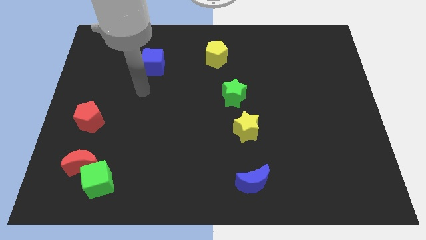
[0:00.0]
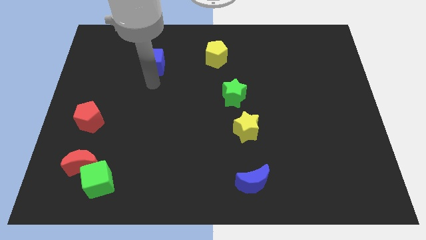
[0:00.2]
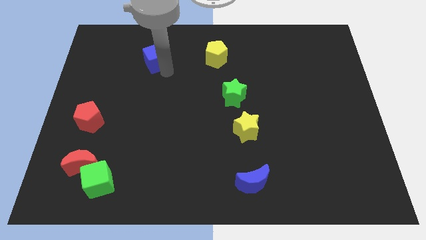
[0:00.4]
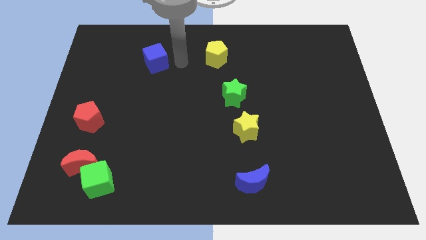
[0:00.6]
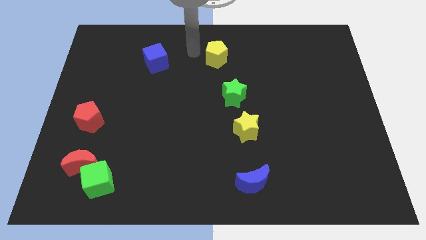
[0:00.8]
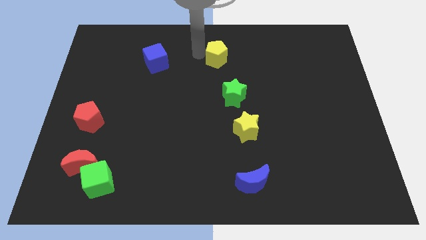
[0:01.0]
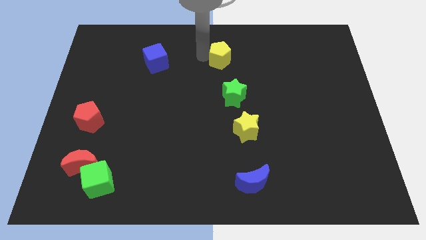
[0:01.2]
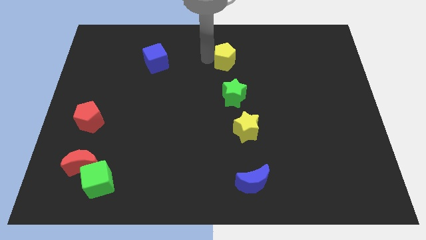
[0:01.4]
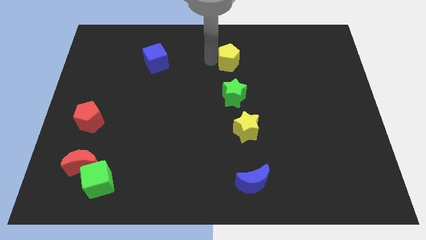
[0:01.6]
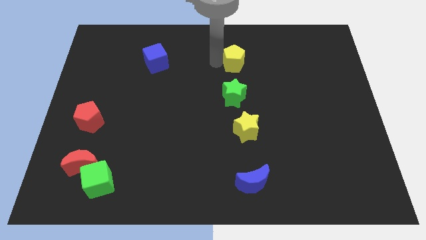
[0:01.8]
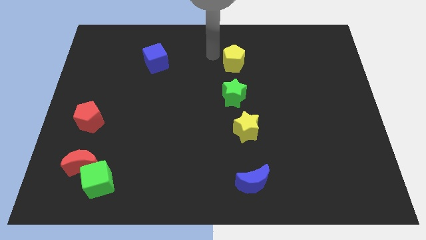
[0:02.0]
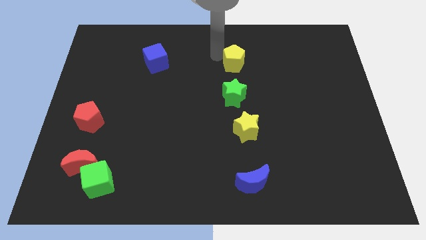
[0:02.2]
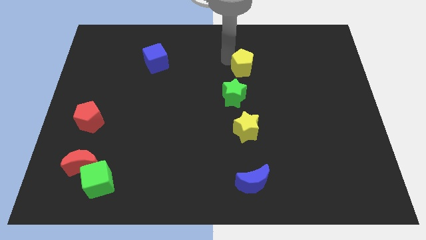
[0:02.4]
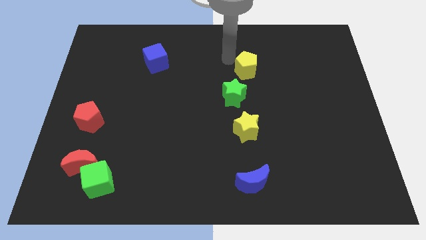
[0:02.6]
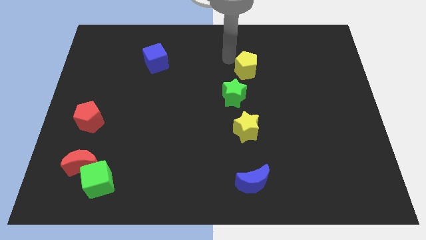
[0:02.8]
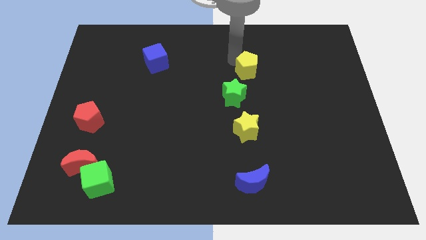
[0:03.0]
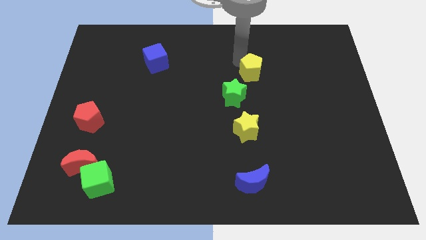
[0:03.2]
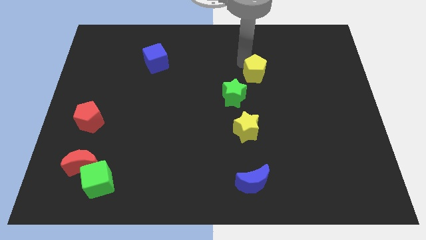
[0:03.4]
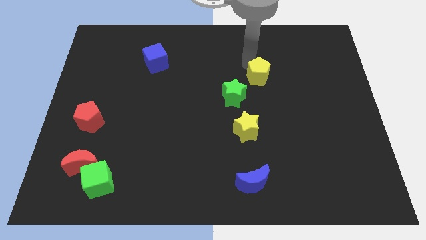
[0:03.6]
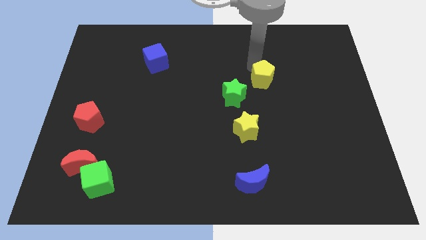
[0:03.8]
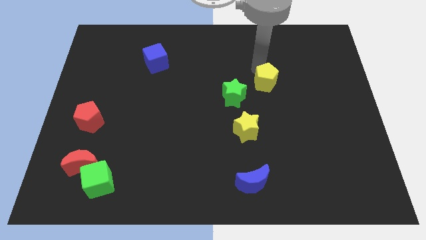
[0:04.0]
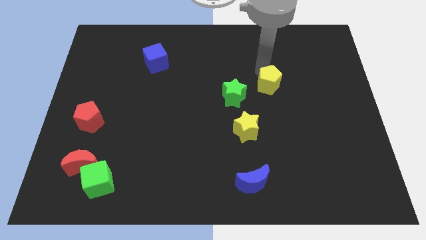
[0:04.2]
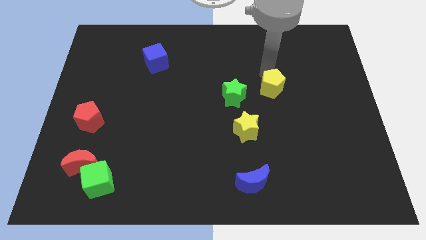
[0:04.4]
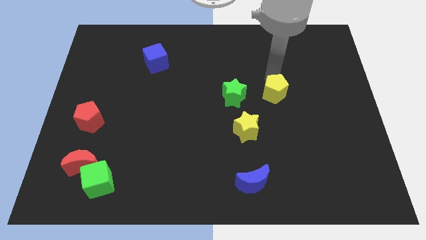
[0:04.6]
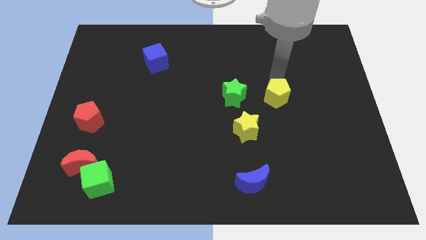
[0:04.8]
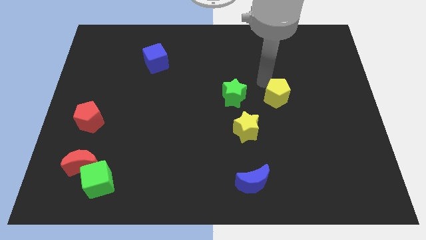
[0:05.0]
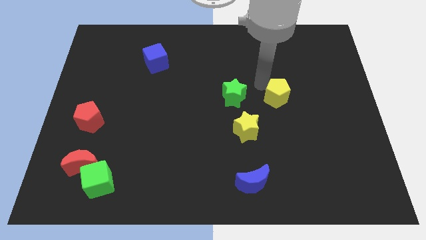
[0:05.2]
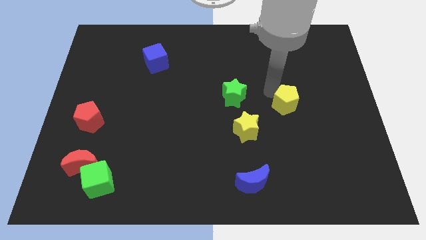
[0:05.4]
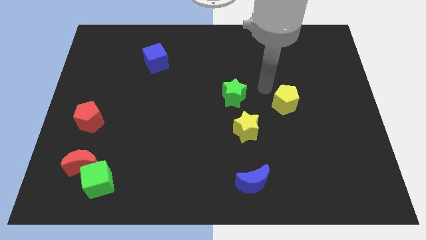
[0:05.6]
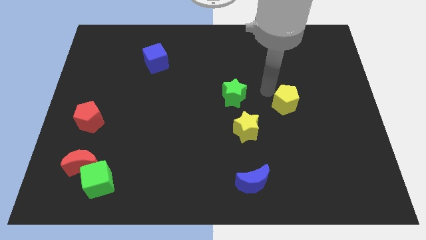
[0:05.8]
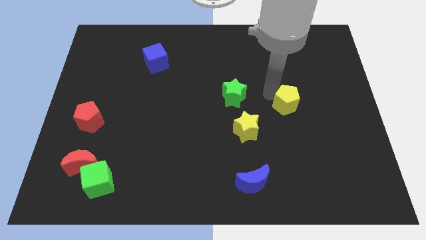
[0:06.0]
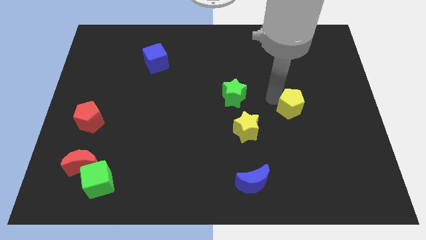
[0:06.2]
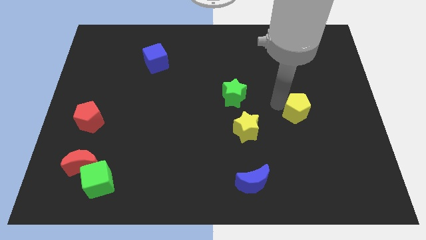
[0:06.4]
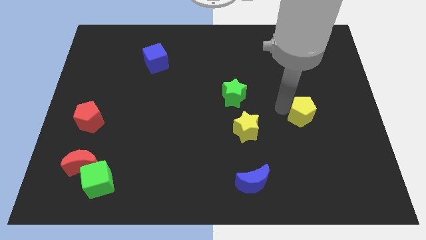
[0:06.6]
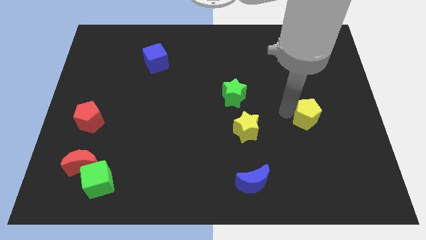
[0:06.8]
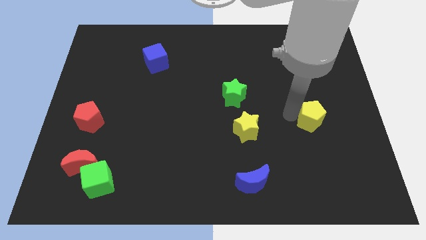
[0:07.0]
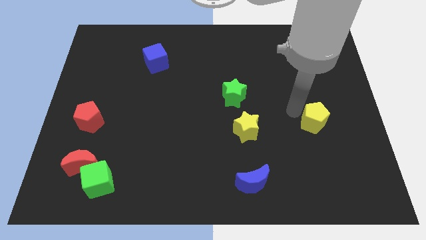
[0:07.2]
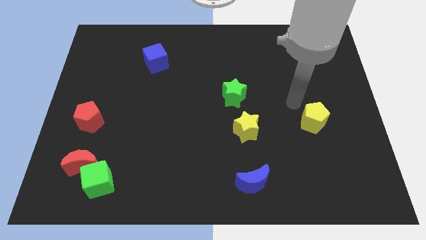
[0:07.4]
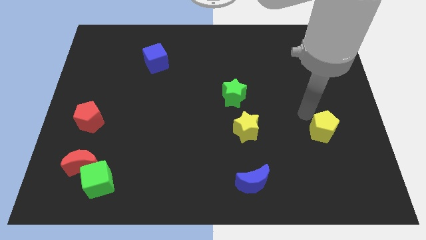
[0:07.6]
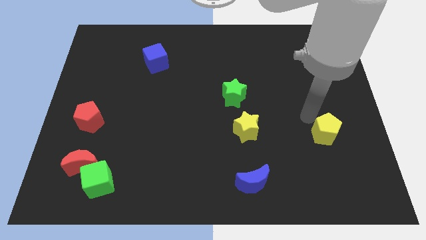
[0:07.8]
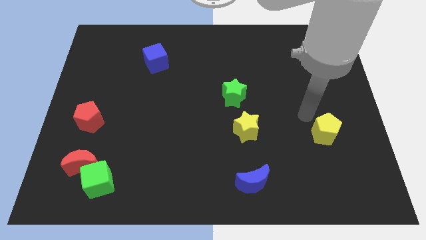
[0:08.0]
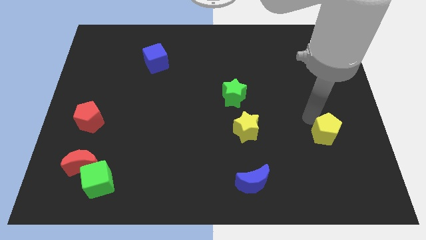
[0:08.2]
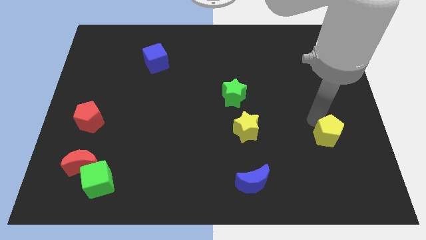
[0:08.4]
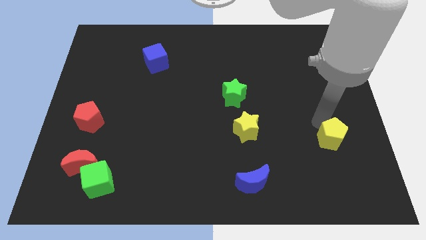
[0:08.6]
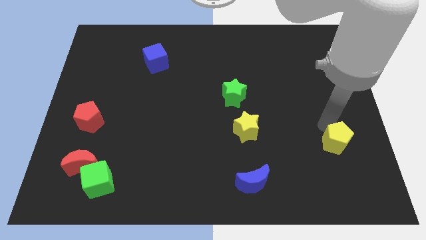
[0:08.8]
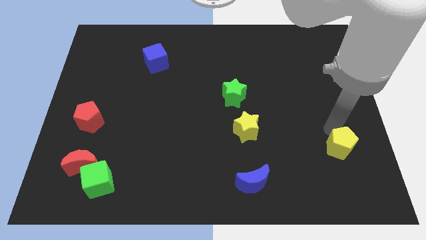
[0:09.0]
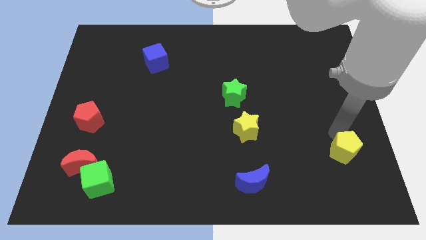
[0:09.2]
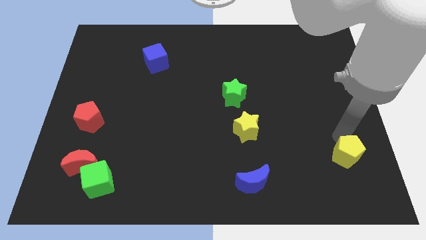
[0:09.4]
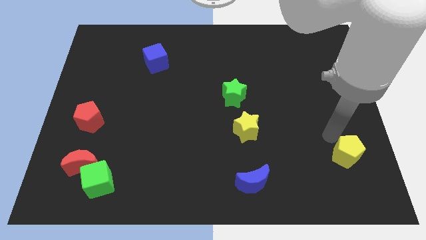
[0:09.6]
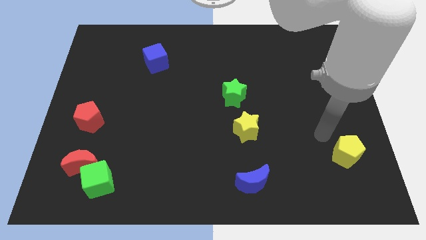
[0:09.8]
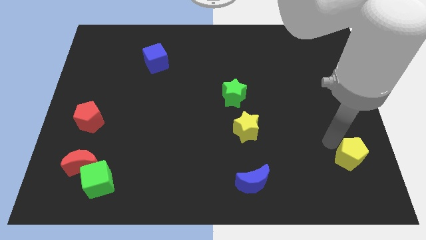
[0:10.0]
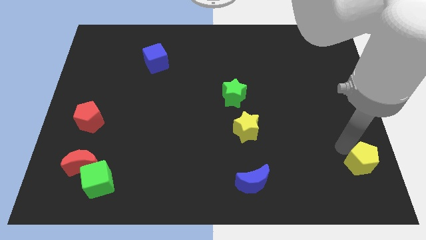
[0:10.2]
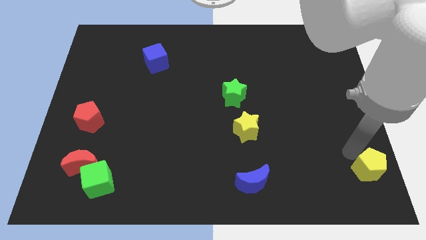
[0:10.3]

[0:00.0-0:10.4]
move the yellow pentagon to the lower right corner
